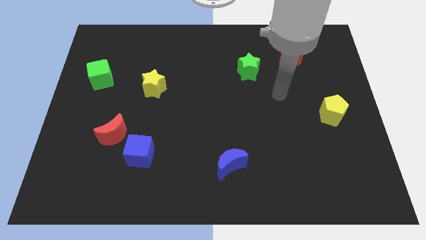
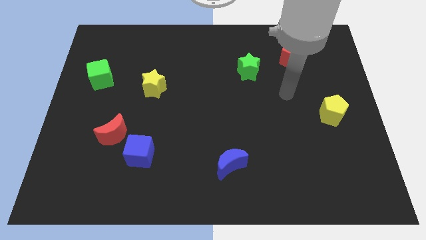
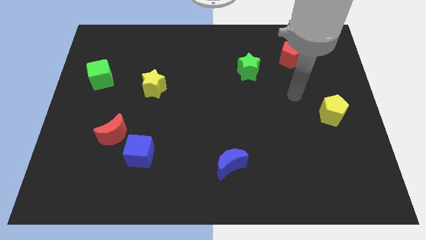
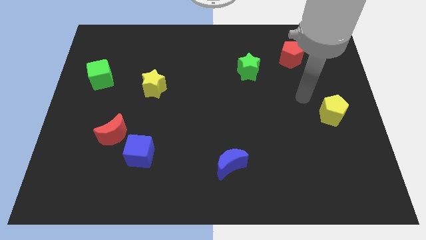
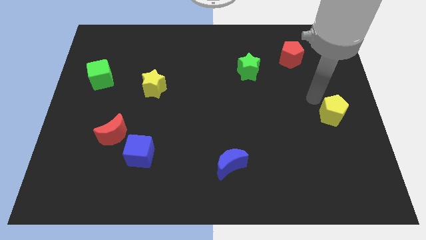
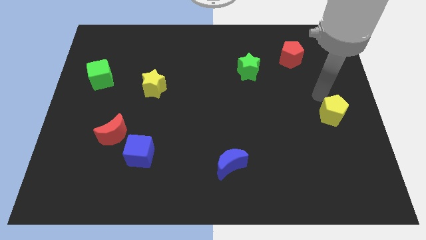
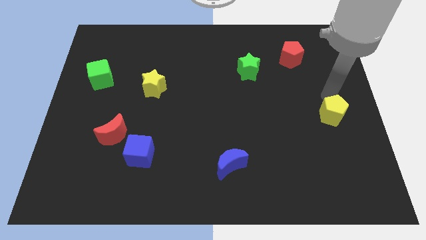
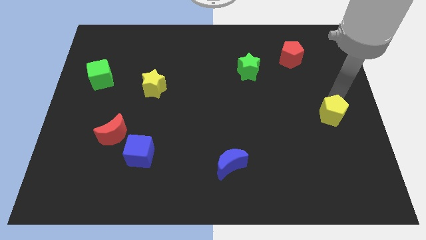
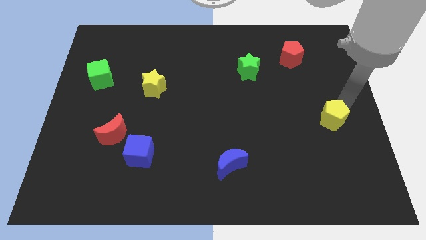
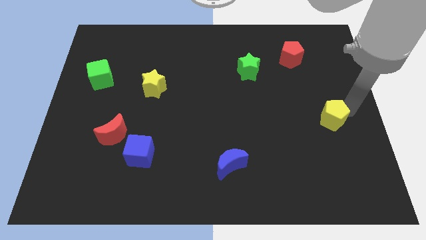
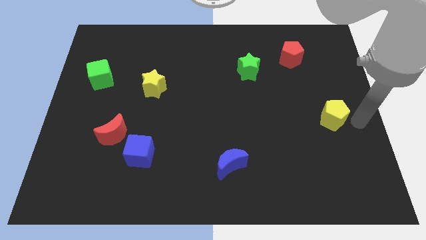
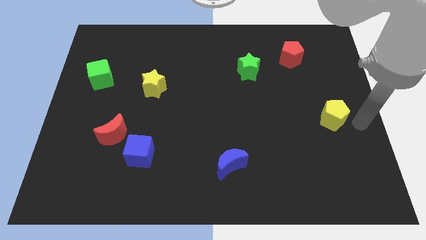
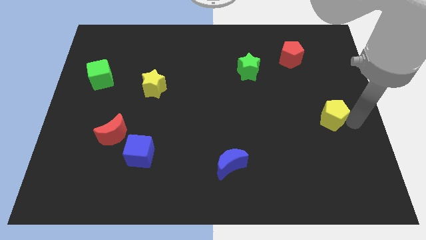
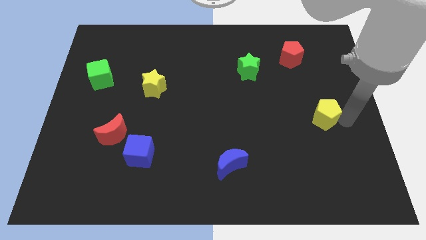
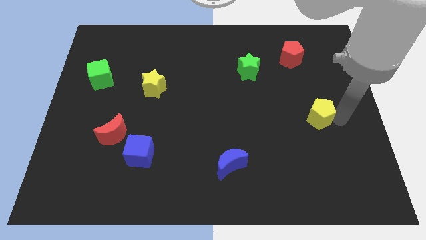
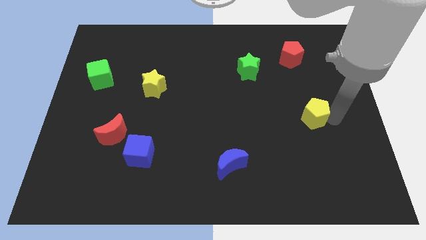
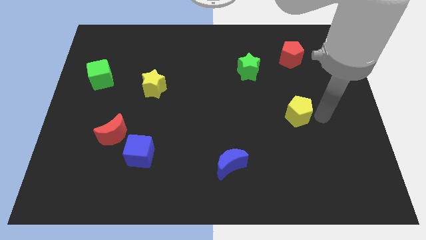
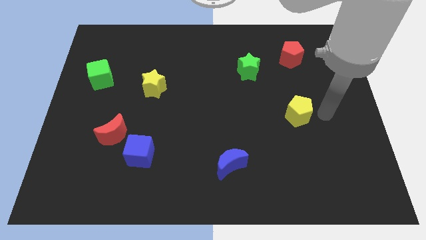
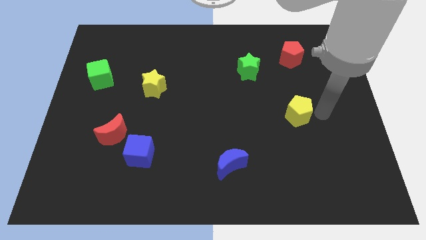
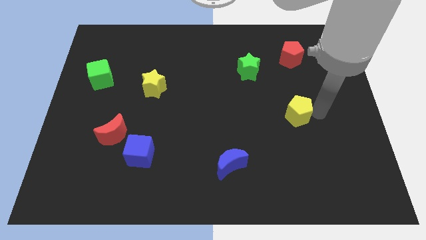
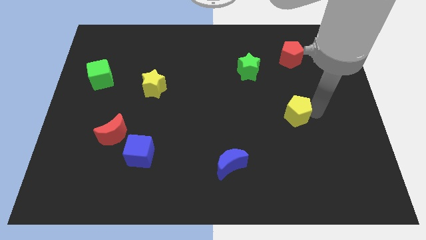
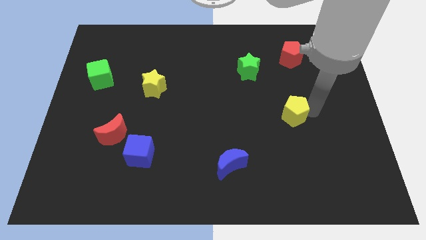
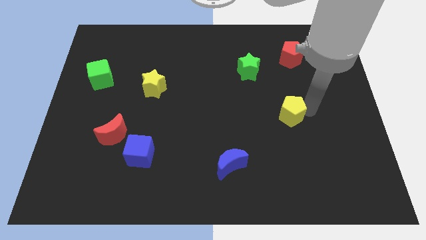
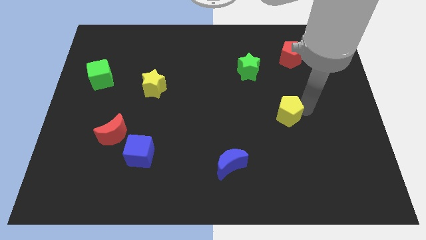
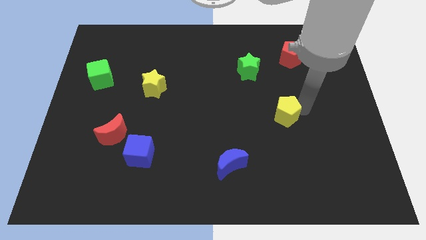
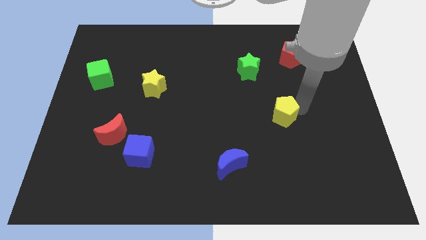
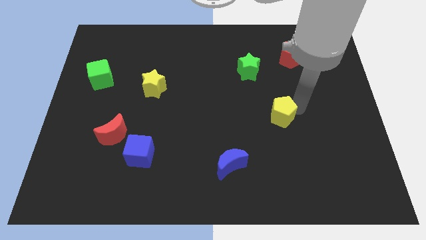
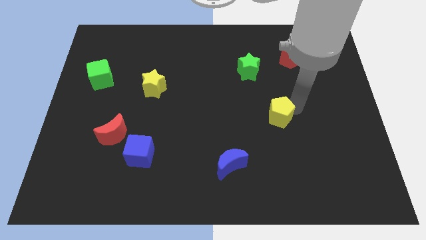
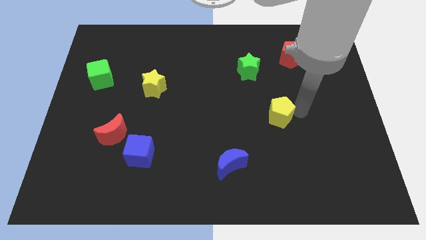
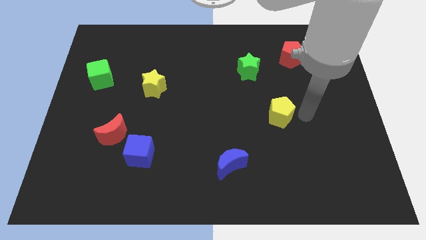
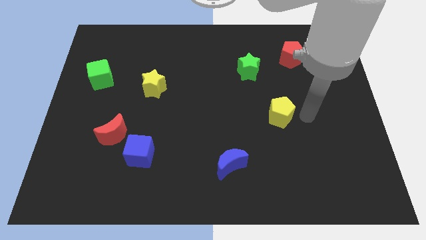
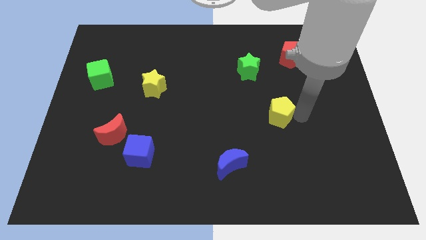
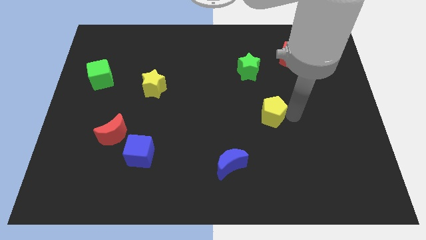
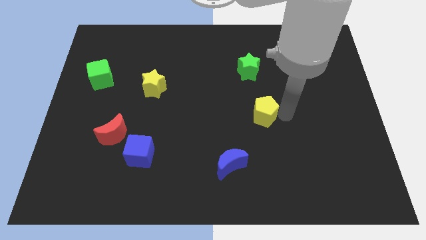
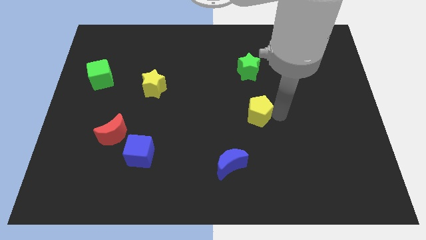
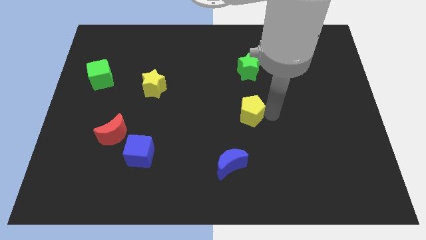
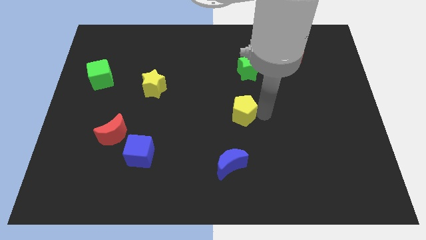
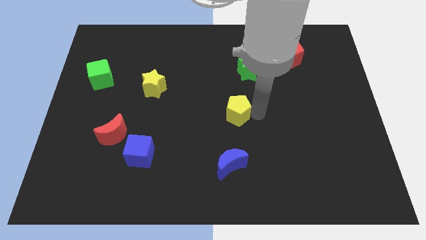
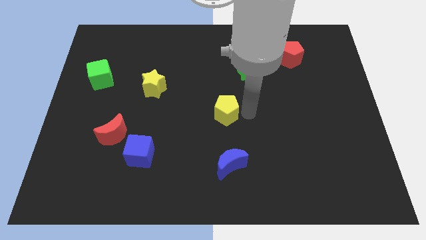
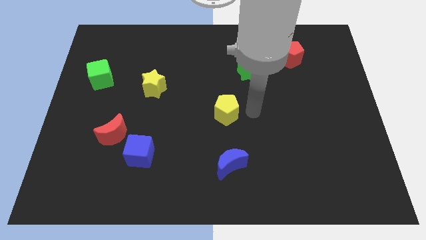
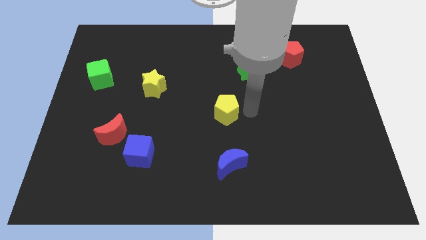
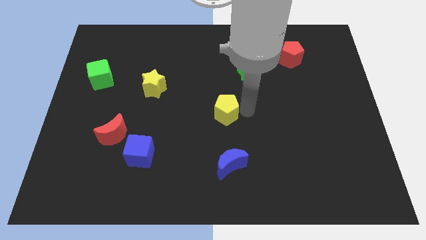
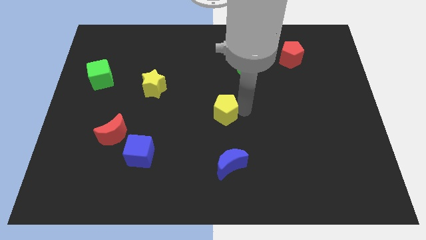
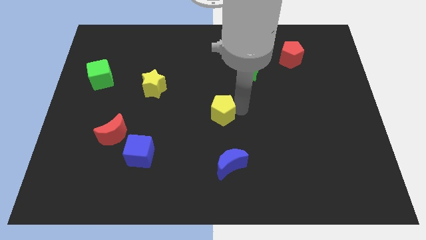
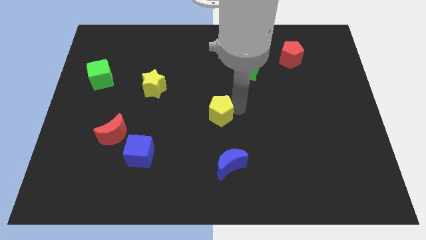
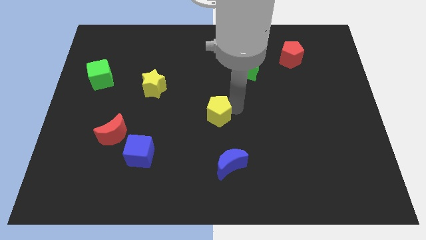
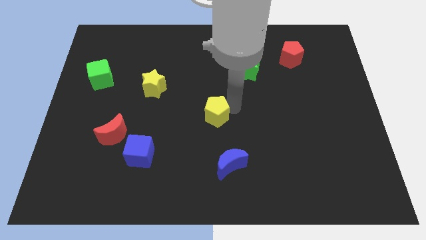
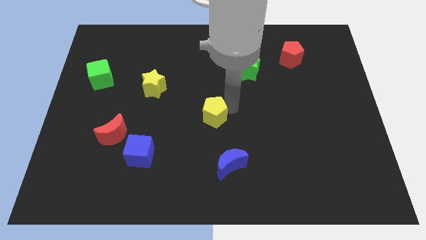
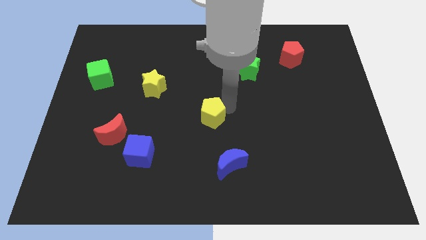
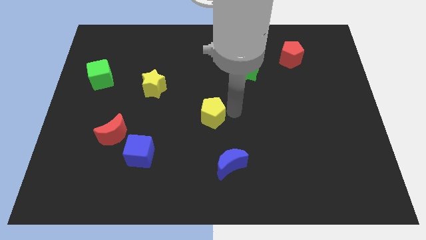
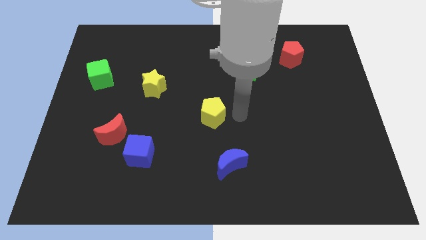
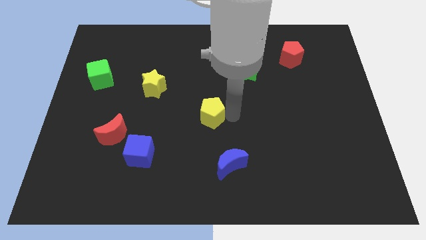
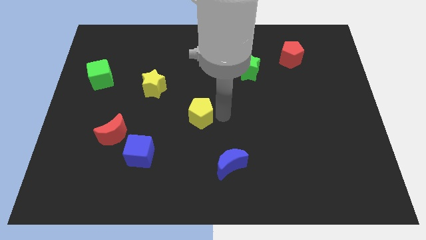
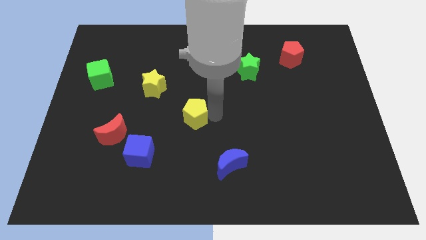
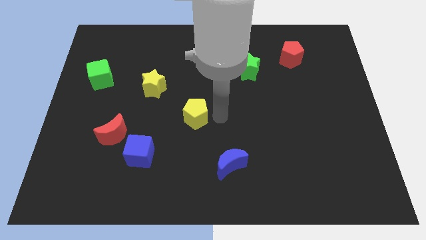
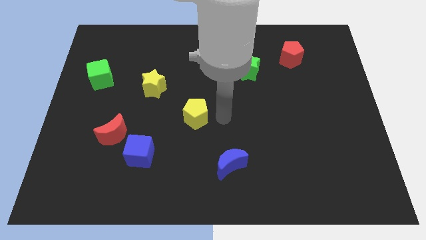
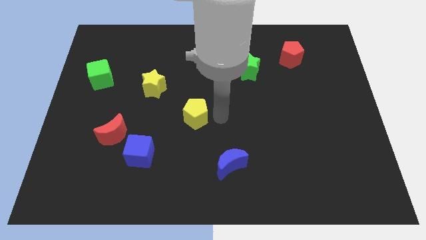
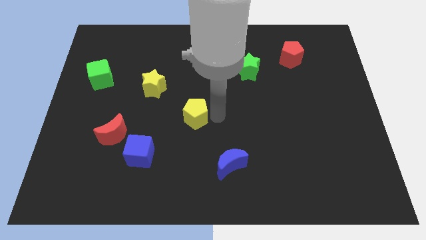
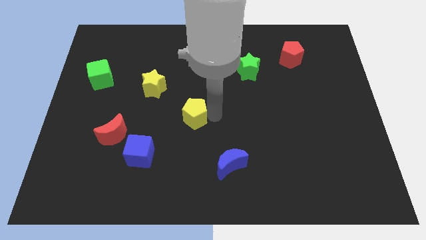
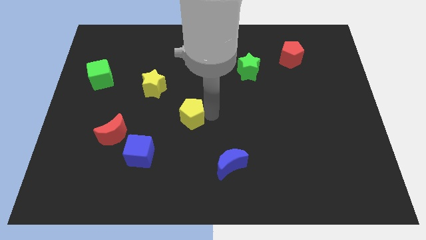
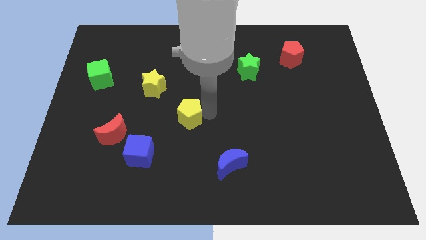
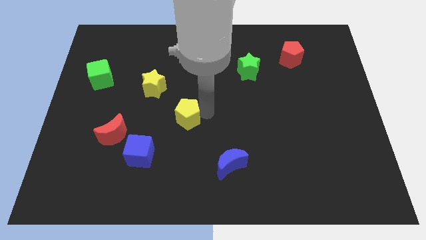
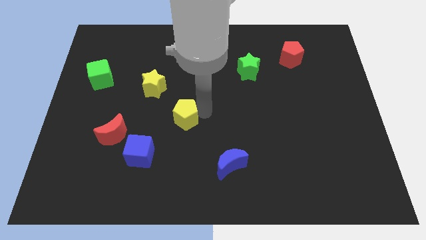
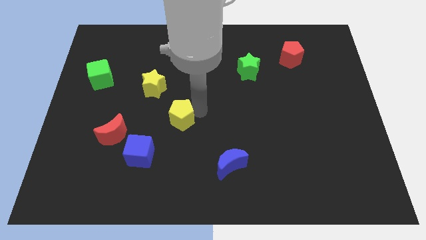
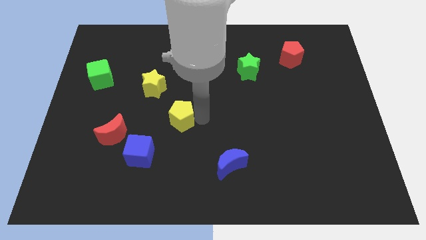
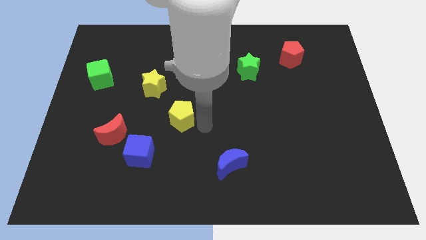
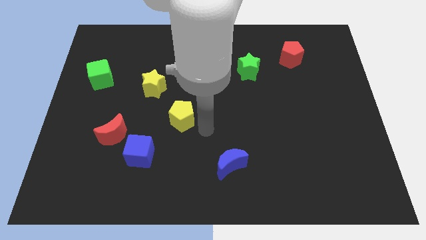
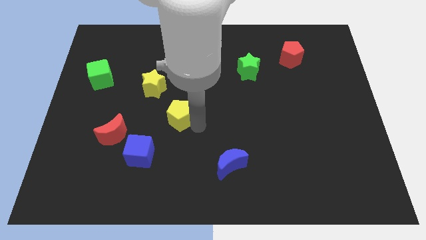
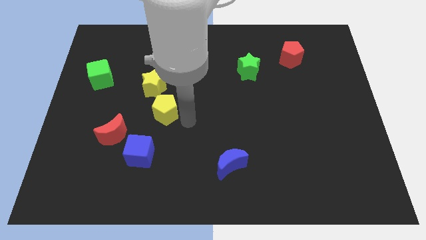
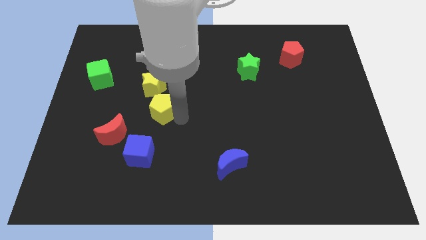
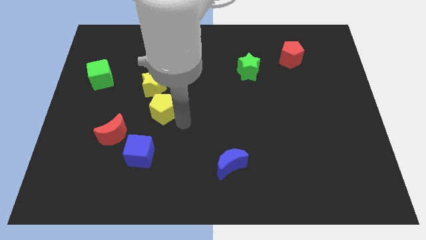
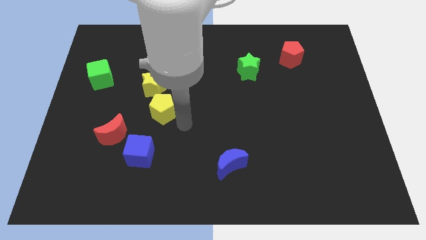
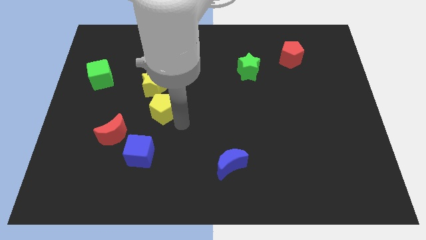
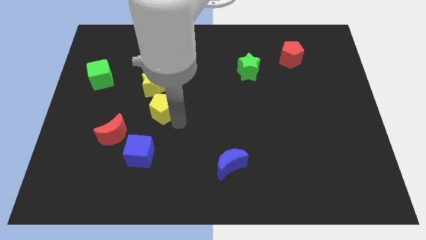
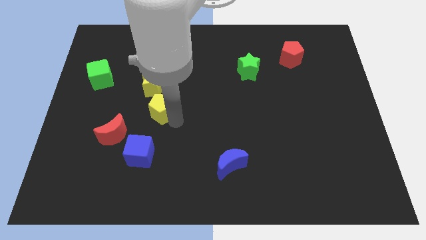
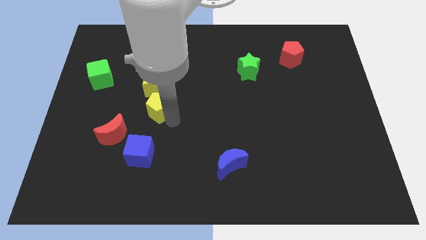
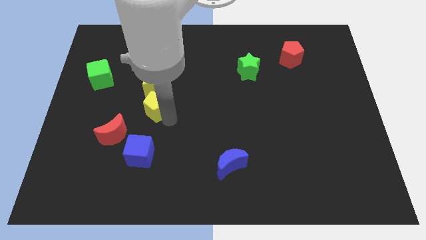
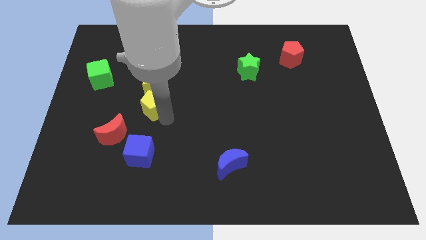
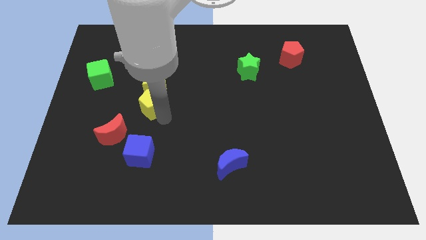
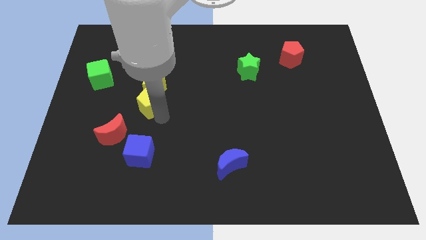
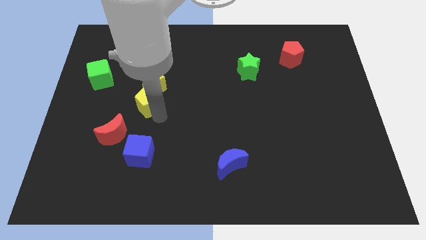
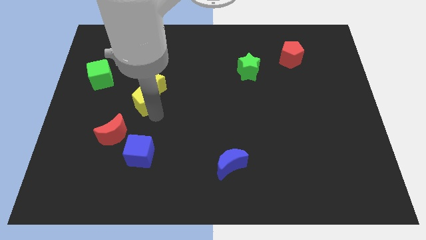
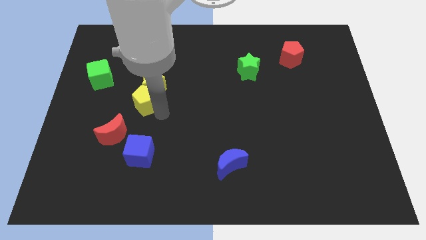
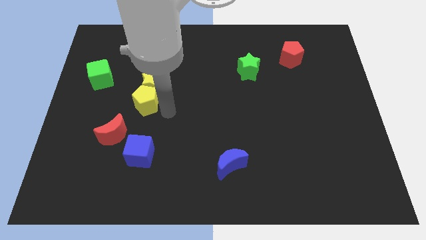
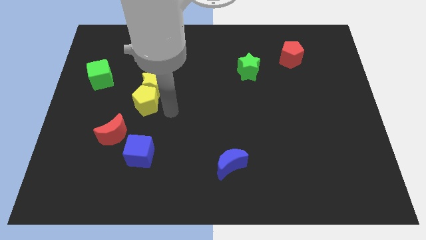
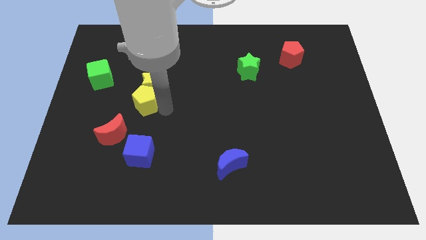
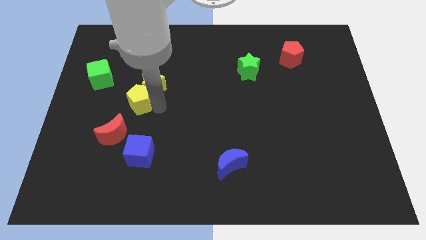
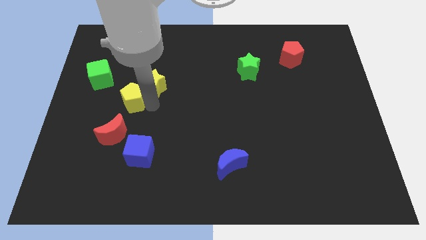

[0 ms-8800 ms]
push the yellow pentagon to the bottom right side of the green cube
